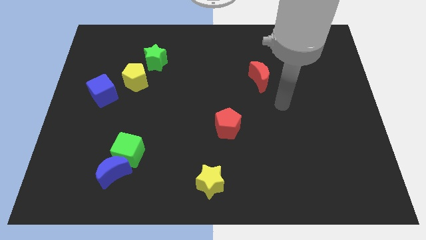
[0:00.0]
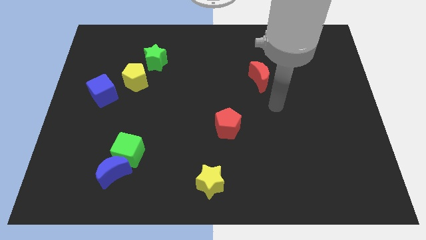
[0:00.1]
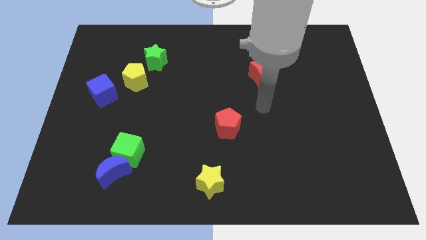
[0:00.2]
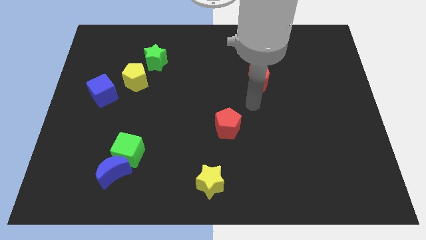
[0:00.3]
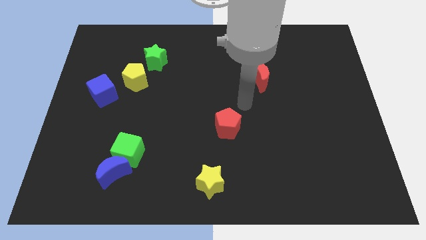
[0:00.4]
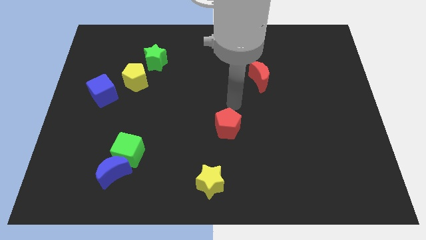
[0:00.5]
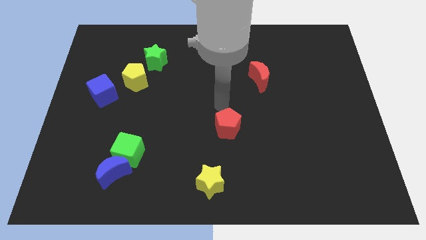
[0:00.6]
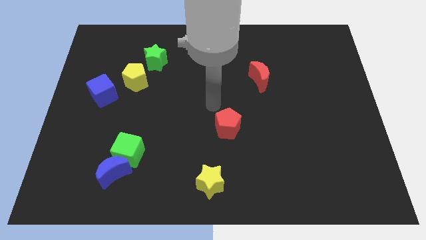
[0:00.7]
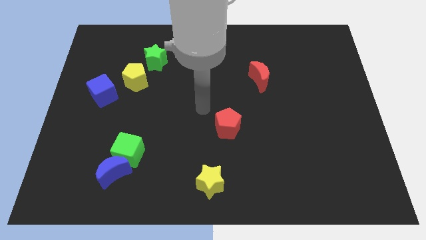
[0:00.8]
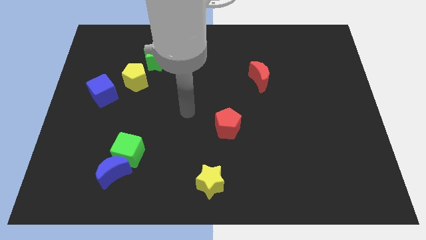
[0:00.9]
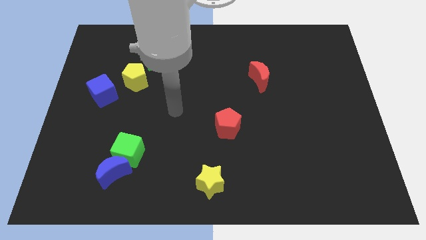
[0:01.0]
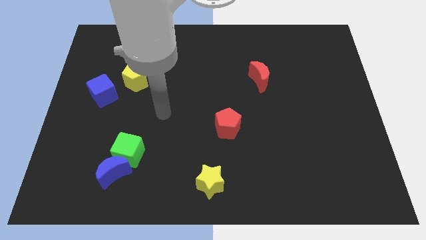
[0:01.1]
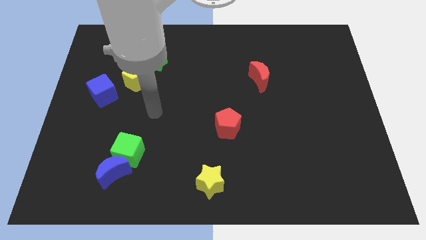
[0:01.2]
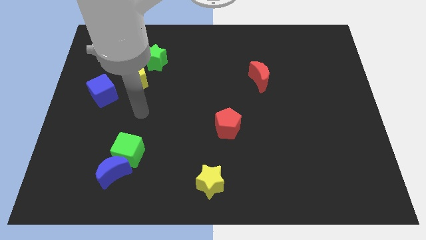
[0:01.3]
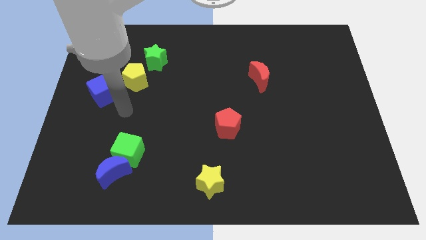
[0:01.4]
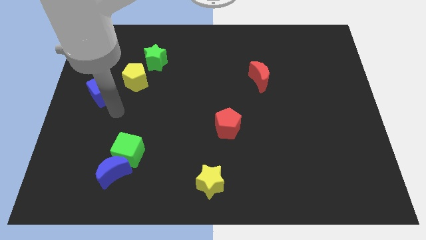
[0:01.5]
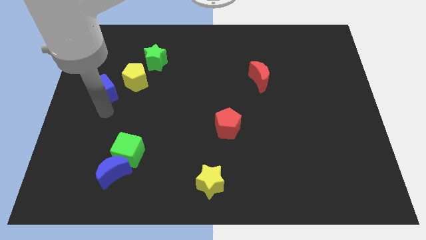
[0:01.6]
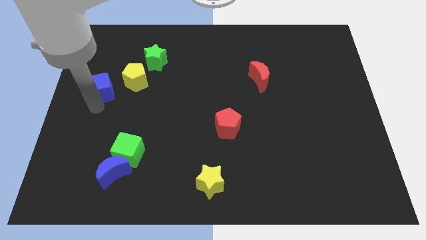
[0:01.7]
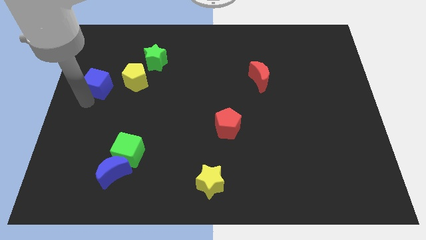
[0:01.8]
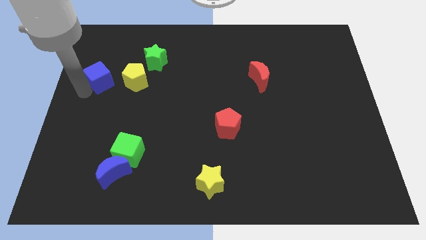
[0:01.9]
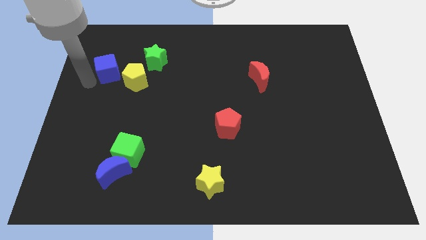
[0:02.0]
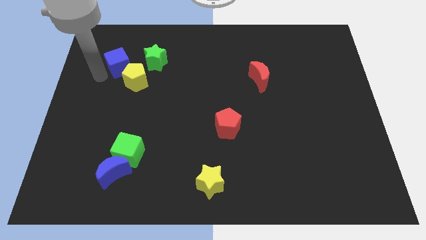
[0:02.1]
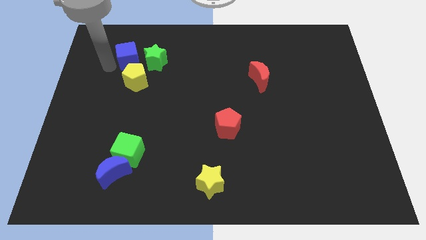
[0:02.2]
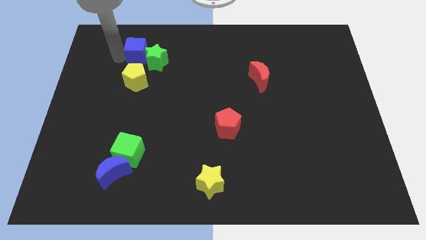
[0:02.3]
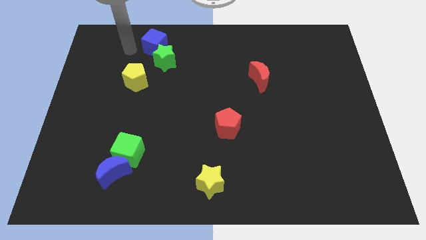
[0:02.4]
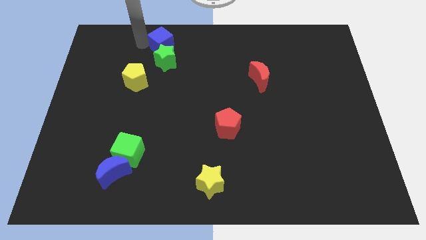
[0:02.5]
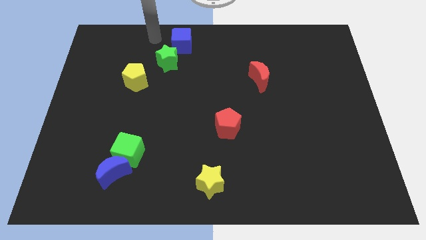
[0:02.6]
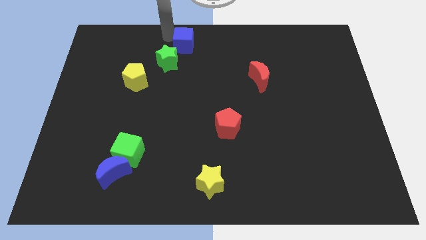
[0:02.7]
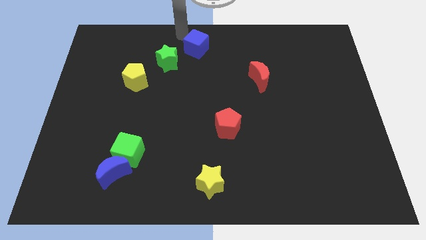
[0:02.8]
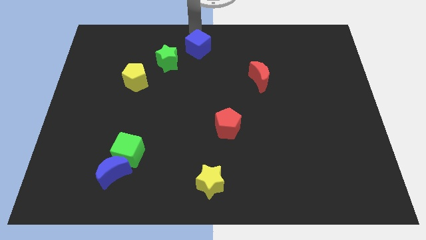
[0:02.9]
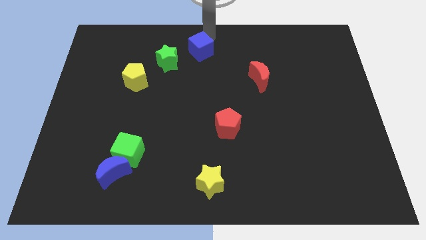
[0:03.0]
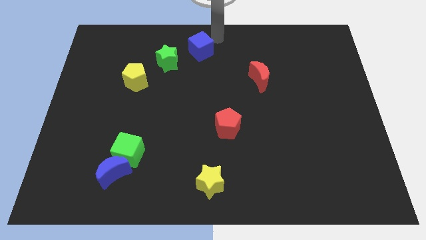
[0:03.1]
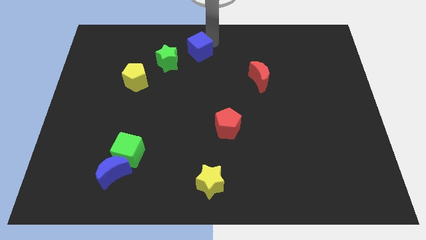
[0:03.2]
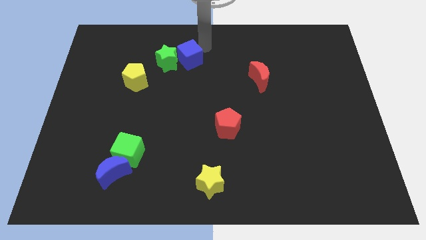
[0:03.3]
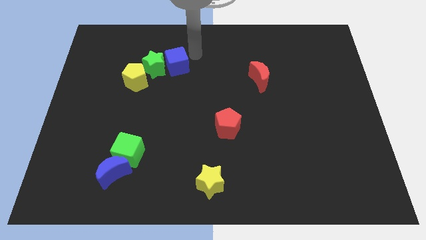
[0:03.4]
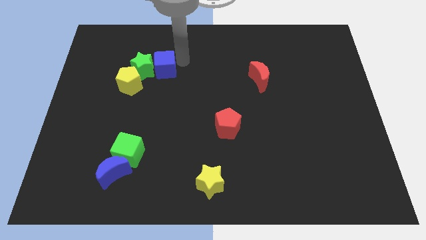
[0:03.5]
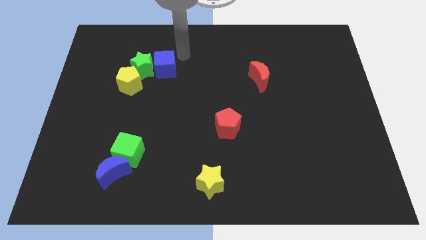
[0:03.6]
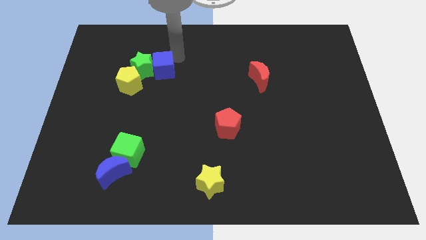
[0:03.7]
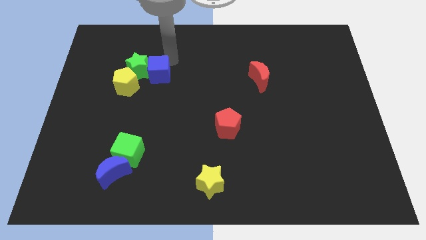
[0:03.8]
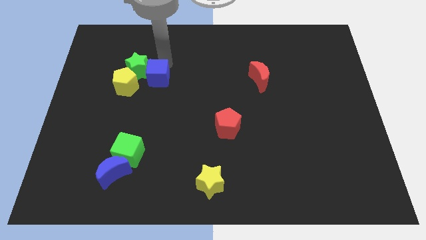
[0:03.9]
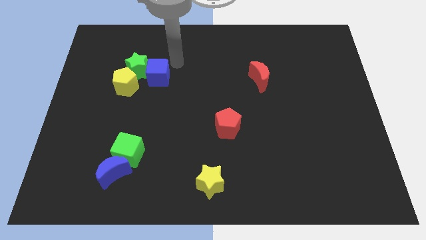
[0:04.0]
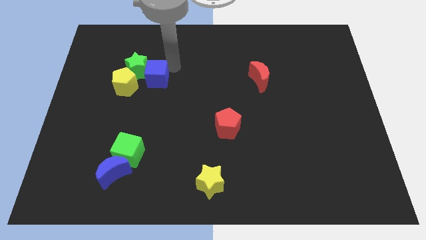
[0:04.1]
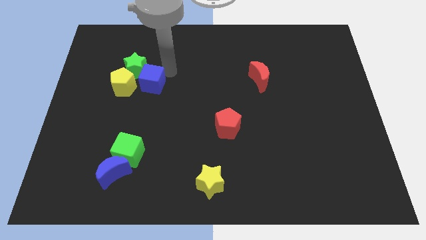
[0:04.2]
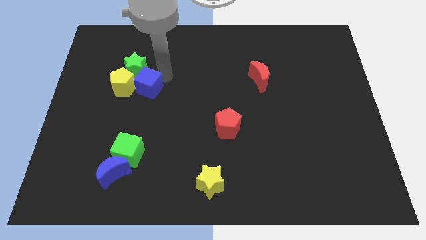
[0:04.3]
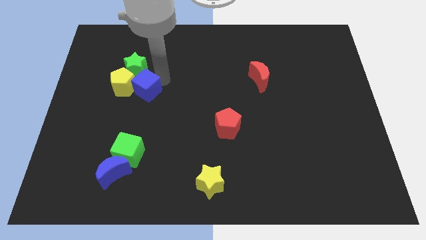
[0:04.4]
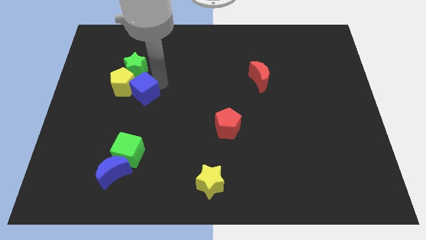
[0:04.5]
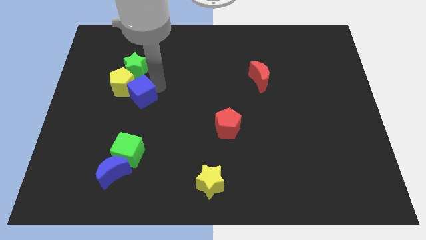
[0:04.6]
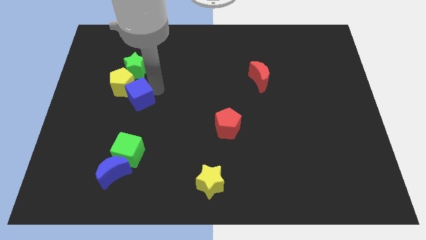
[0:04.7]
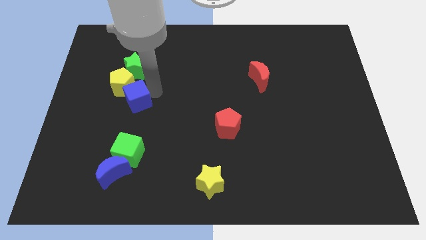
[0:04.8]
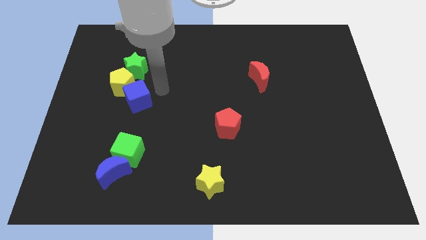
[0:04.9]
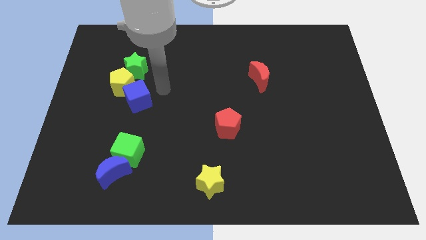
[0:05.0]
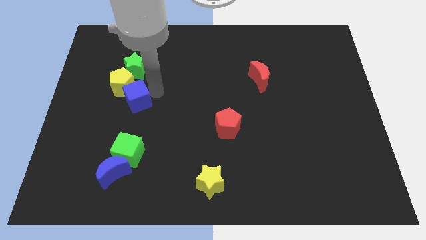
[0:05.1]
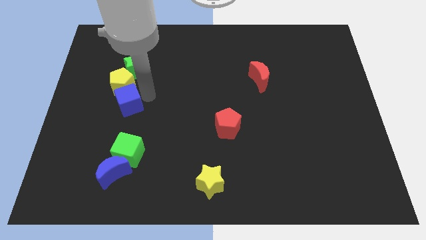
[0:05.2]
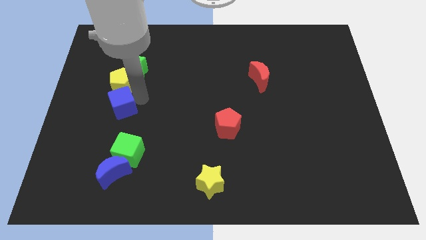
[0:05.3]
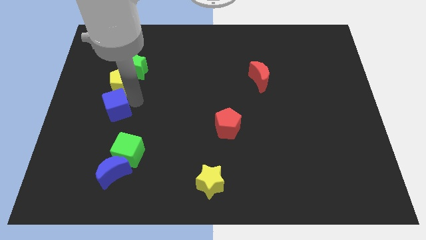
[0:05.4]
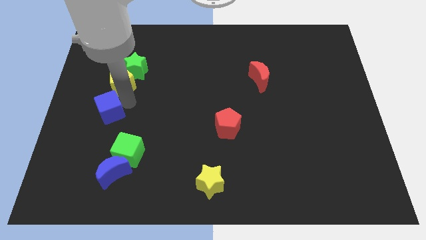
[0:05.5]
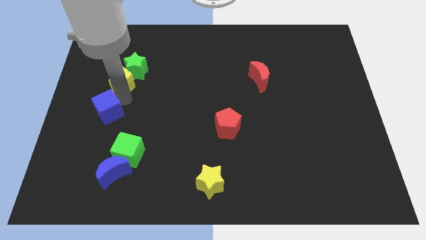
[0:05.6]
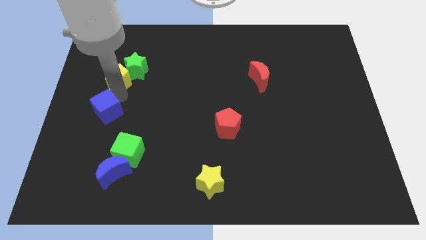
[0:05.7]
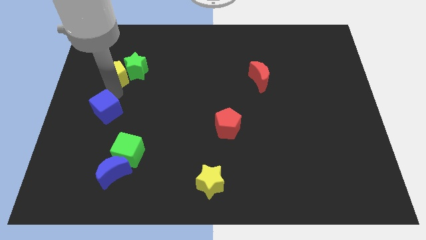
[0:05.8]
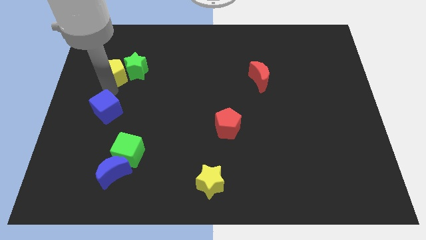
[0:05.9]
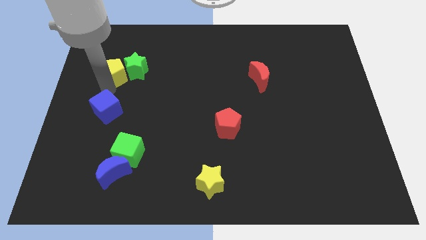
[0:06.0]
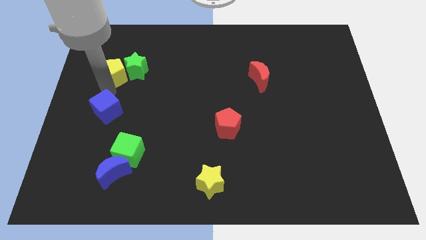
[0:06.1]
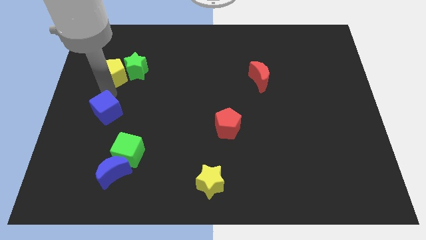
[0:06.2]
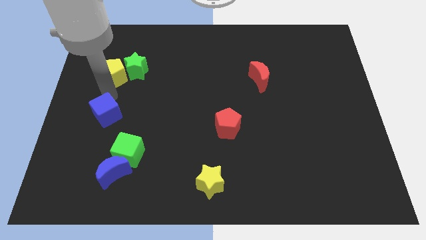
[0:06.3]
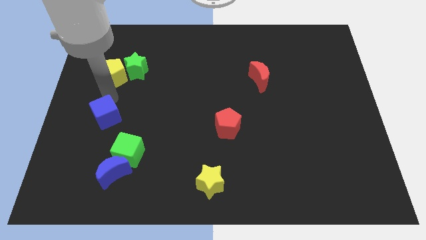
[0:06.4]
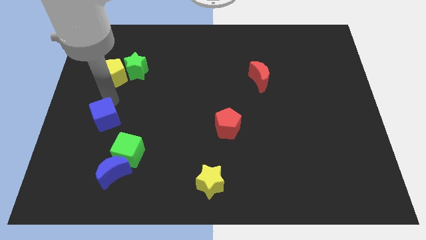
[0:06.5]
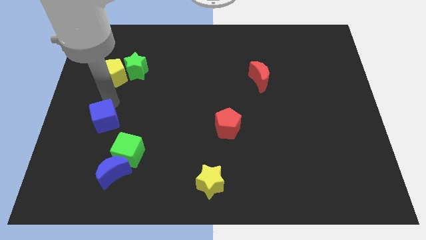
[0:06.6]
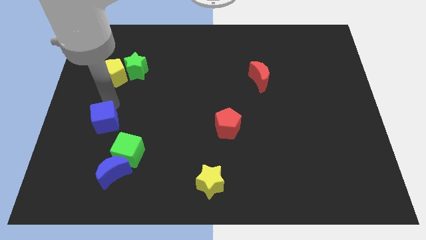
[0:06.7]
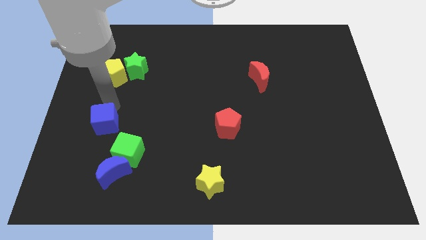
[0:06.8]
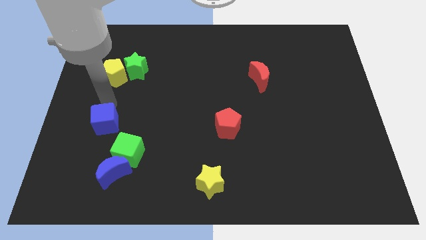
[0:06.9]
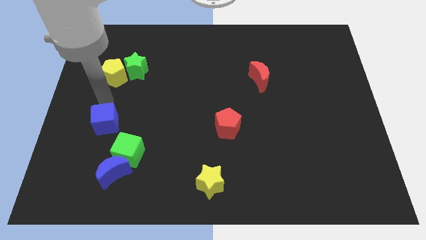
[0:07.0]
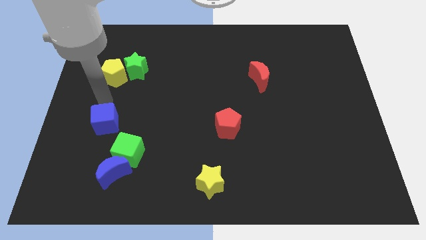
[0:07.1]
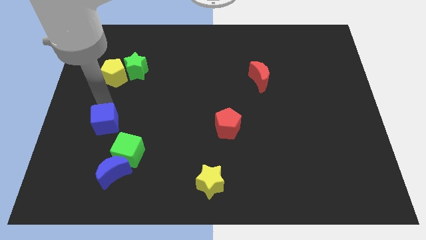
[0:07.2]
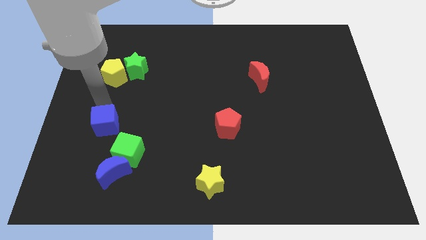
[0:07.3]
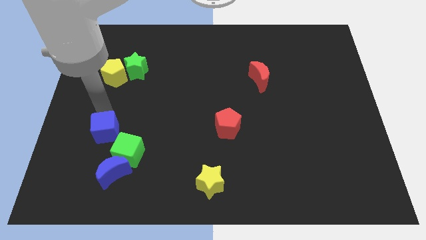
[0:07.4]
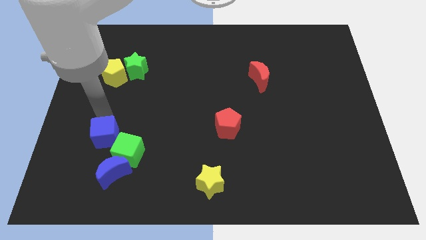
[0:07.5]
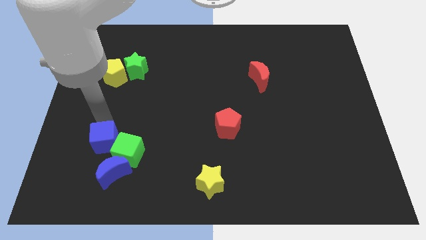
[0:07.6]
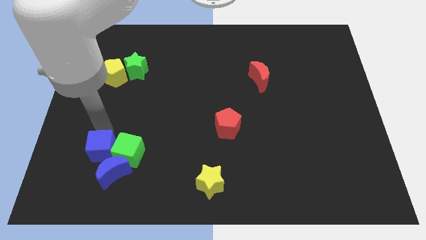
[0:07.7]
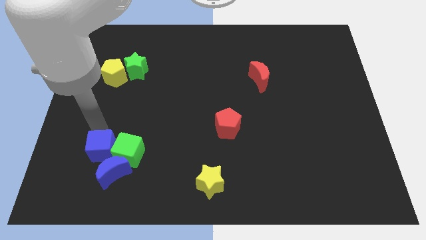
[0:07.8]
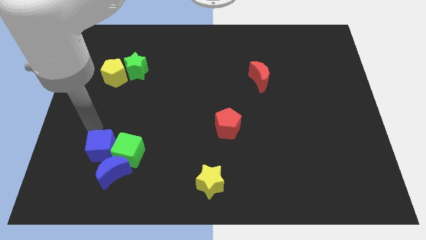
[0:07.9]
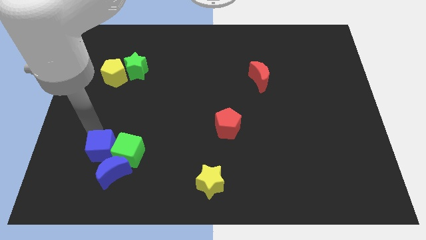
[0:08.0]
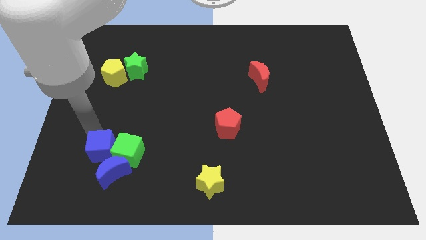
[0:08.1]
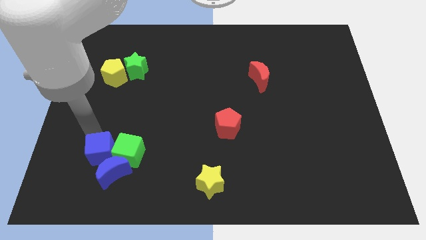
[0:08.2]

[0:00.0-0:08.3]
push the blue cube towards the blue moon
